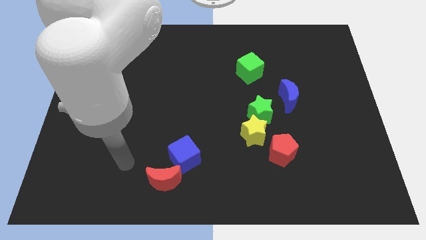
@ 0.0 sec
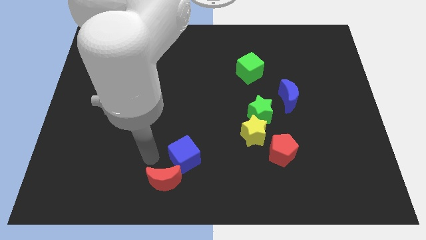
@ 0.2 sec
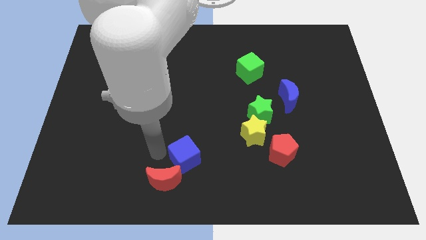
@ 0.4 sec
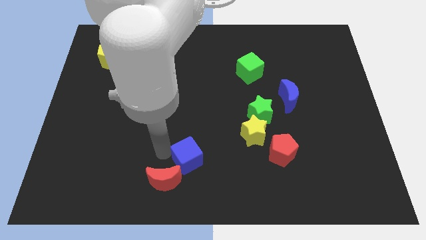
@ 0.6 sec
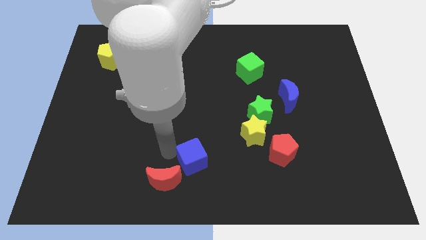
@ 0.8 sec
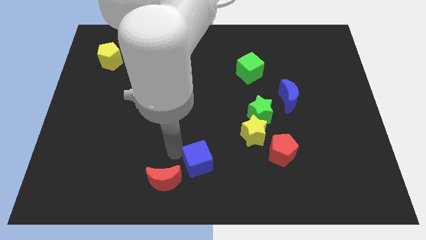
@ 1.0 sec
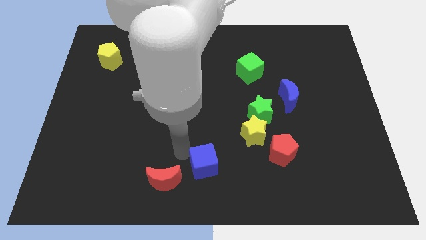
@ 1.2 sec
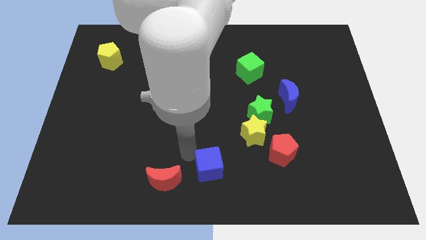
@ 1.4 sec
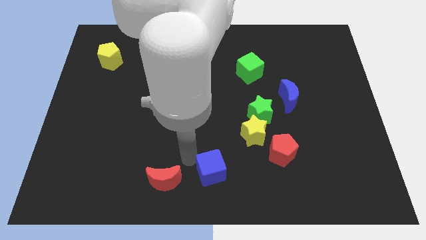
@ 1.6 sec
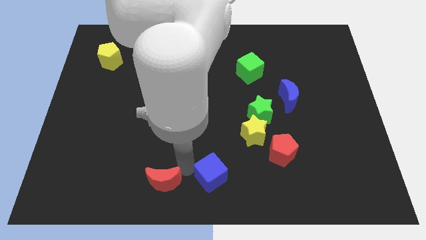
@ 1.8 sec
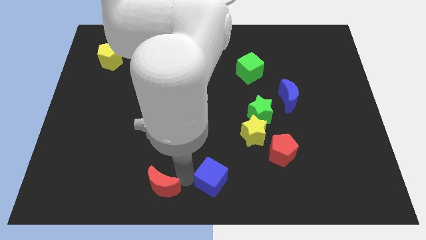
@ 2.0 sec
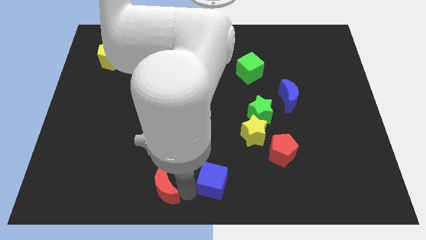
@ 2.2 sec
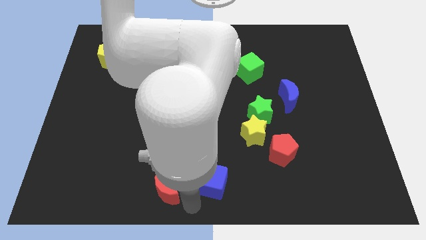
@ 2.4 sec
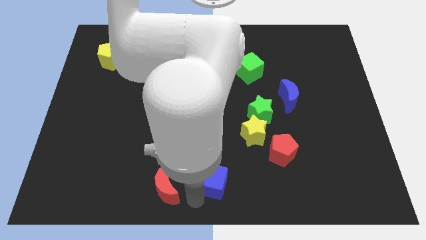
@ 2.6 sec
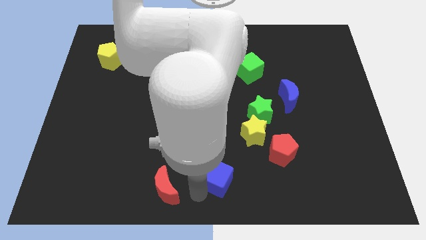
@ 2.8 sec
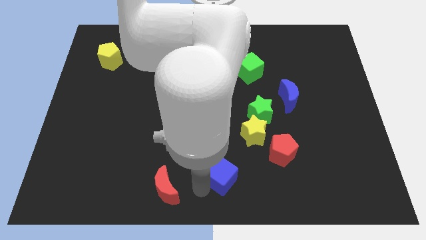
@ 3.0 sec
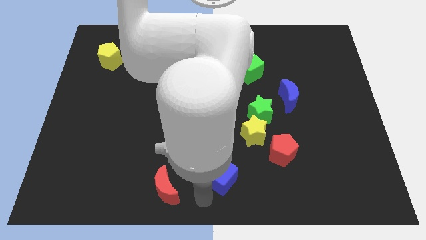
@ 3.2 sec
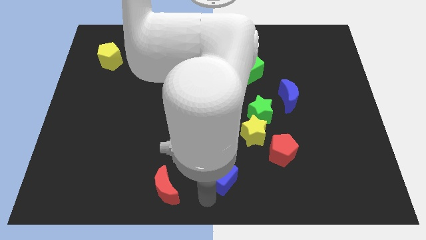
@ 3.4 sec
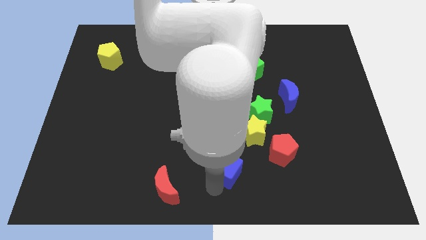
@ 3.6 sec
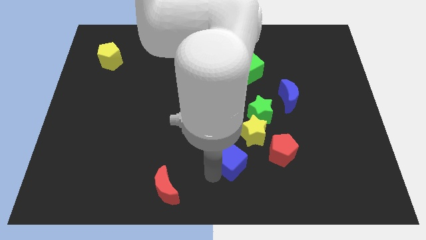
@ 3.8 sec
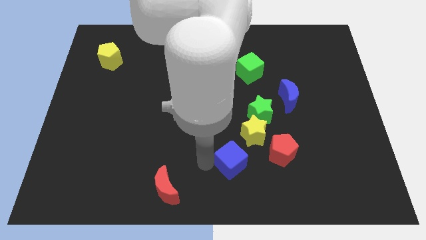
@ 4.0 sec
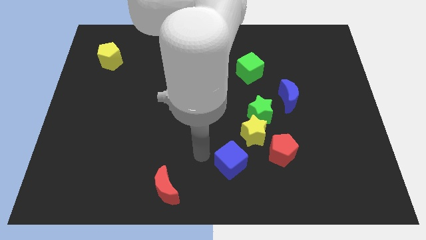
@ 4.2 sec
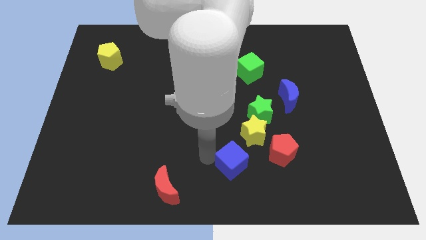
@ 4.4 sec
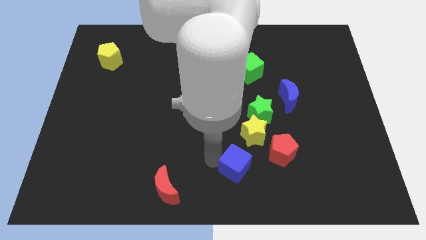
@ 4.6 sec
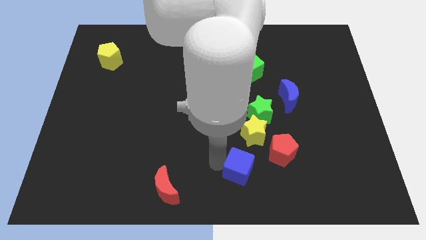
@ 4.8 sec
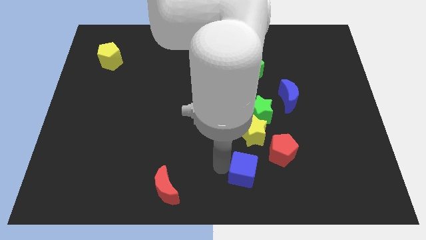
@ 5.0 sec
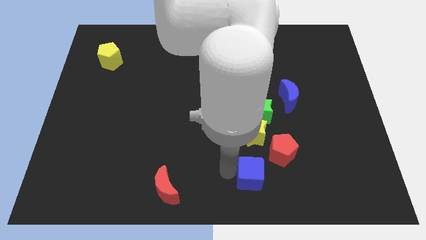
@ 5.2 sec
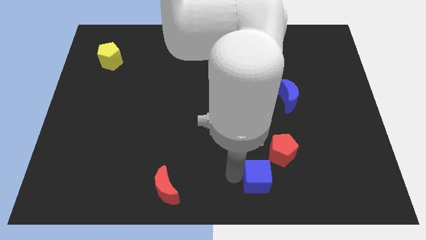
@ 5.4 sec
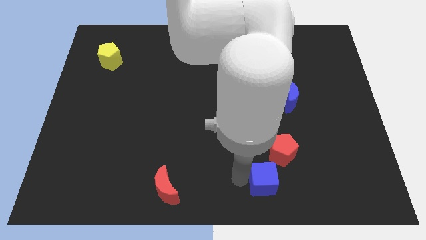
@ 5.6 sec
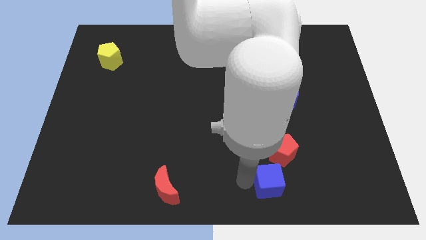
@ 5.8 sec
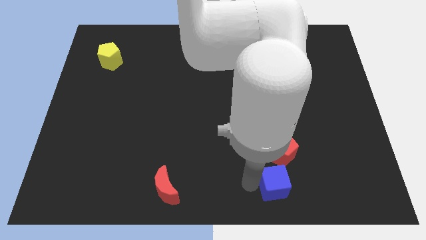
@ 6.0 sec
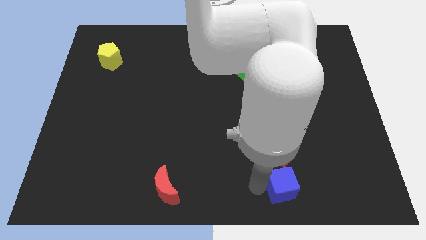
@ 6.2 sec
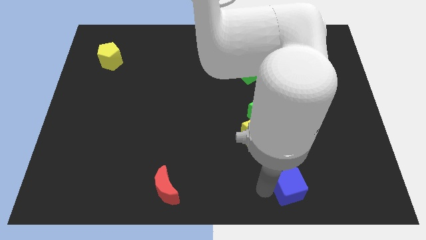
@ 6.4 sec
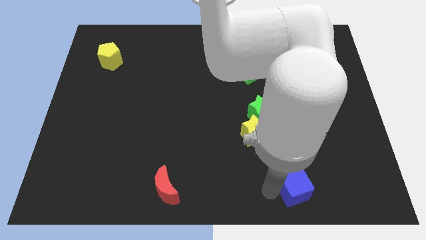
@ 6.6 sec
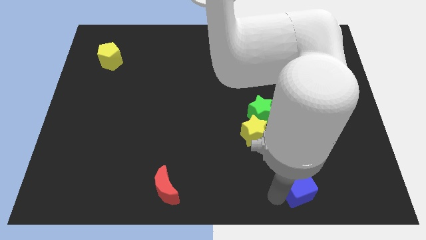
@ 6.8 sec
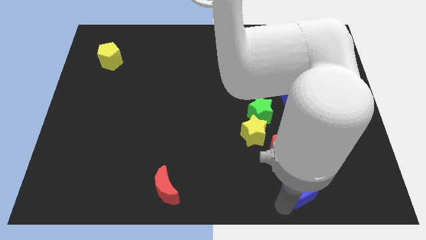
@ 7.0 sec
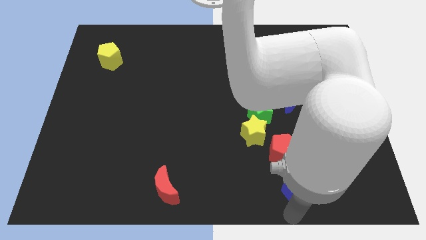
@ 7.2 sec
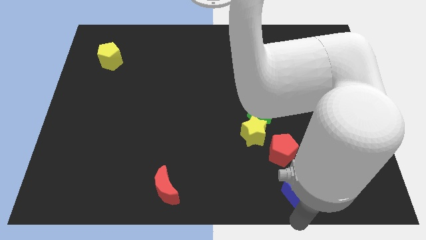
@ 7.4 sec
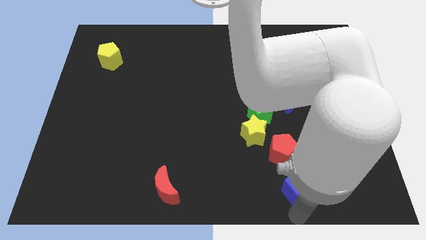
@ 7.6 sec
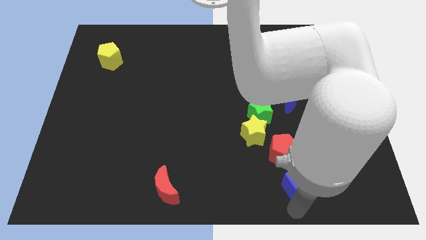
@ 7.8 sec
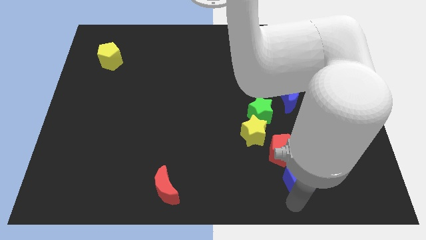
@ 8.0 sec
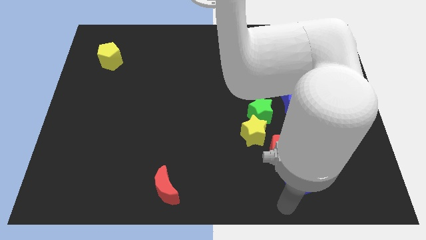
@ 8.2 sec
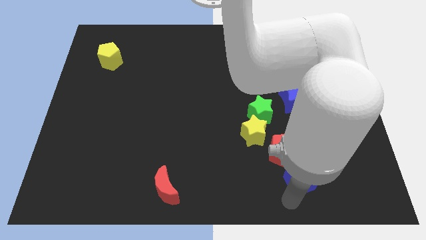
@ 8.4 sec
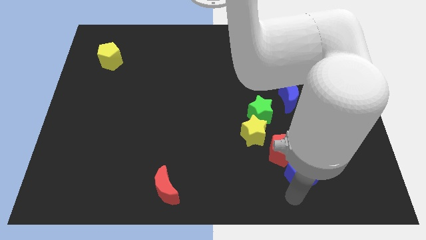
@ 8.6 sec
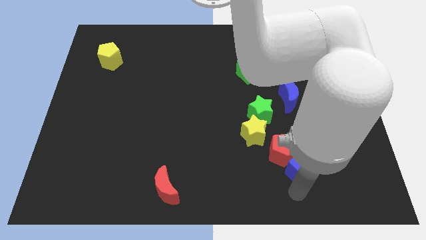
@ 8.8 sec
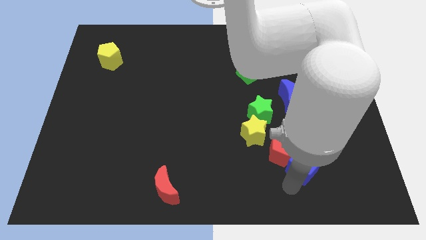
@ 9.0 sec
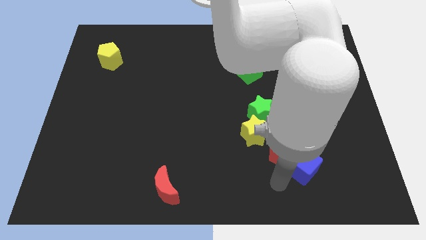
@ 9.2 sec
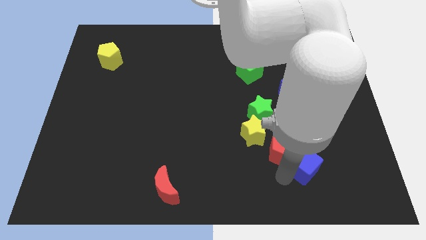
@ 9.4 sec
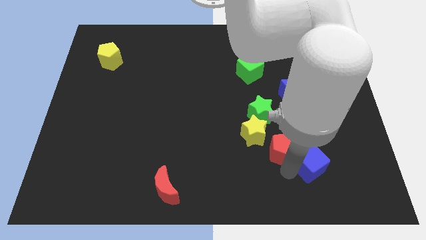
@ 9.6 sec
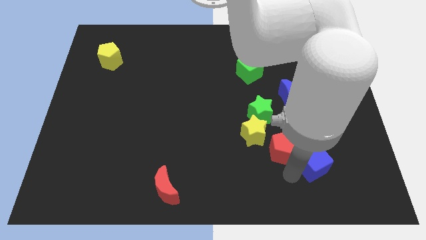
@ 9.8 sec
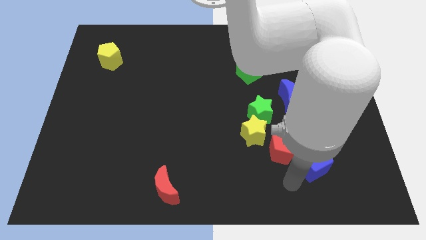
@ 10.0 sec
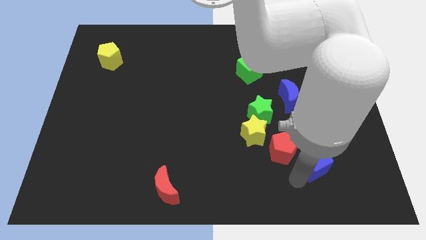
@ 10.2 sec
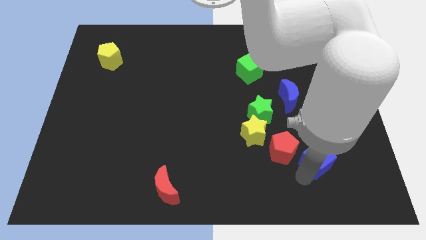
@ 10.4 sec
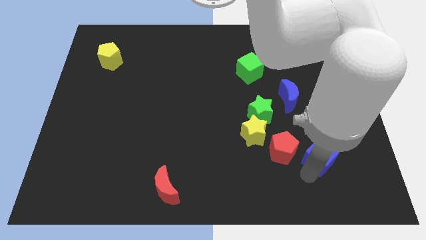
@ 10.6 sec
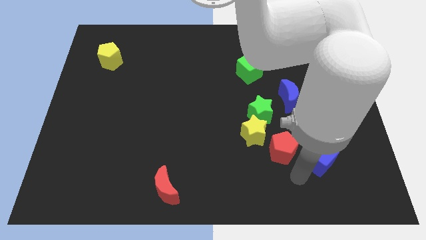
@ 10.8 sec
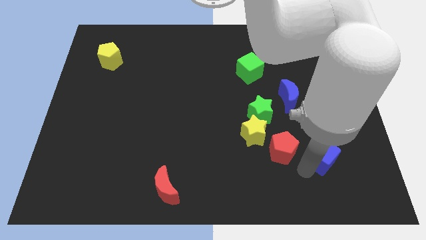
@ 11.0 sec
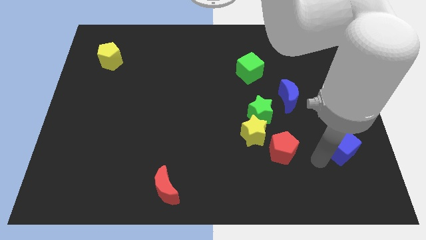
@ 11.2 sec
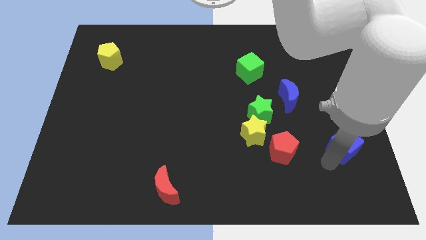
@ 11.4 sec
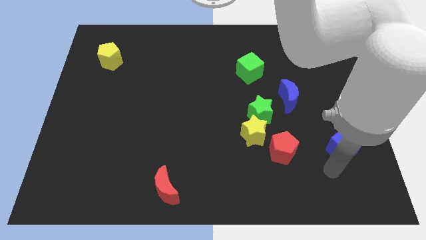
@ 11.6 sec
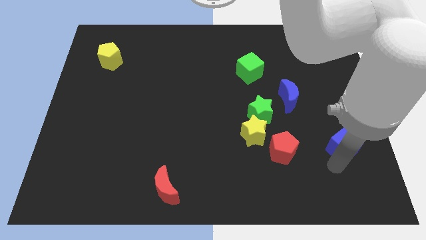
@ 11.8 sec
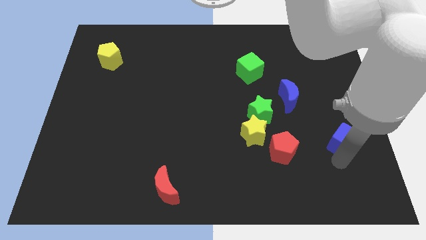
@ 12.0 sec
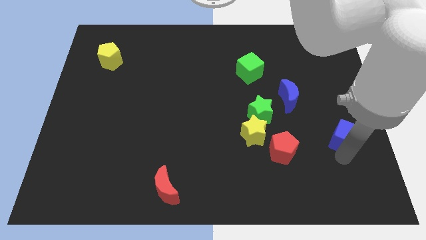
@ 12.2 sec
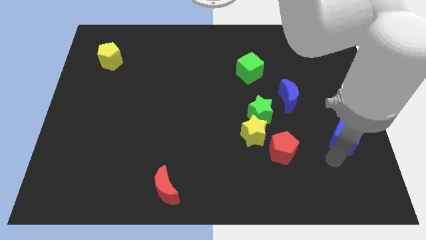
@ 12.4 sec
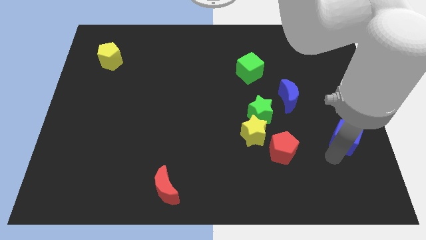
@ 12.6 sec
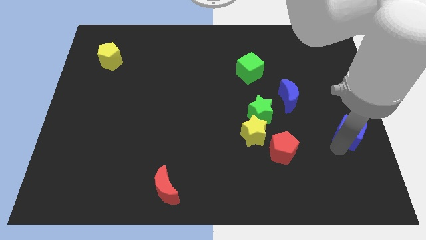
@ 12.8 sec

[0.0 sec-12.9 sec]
slide the blue cube to the right side

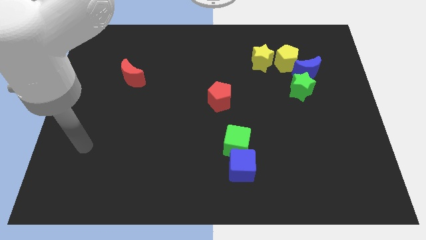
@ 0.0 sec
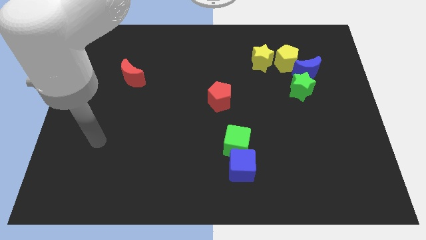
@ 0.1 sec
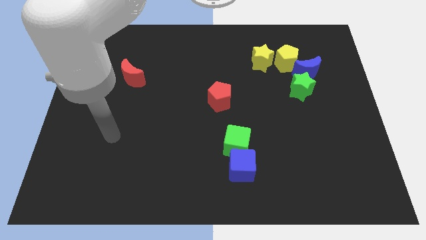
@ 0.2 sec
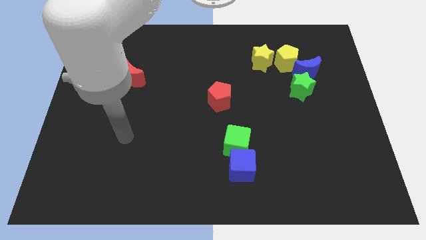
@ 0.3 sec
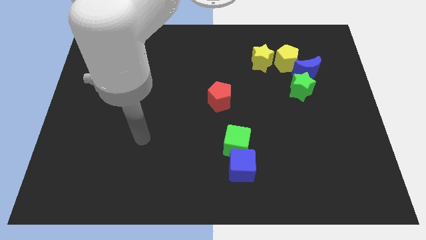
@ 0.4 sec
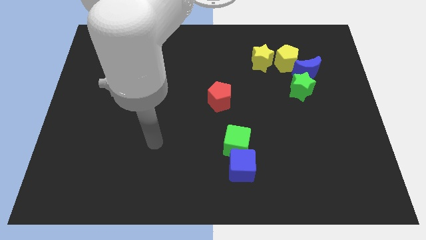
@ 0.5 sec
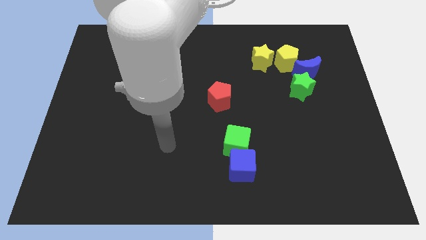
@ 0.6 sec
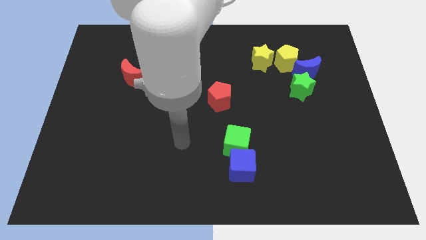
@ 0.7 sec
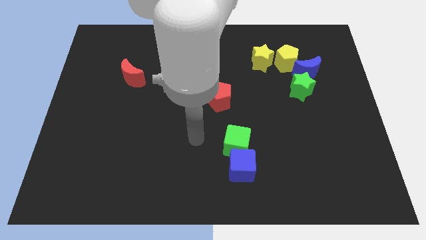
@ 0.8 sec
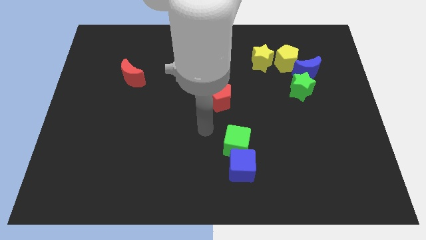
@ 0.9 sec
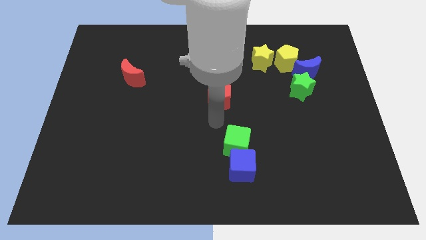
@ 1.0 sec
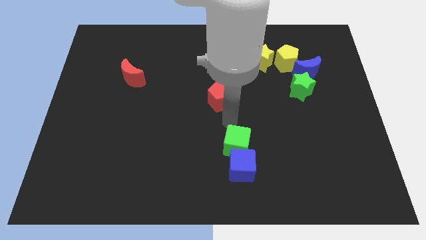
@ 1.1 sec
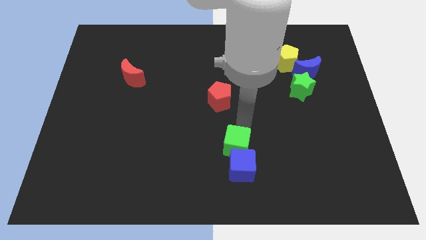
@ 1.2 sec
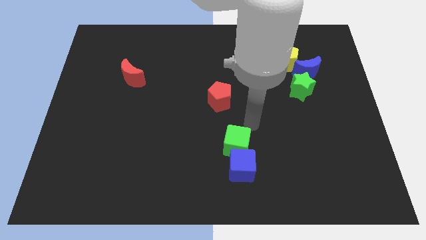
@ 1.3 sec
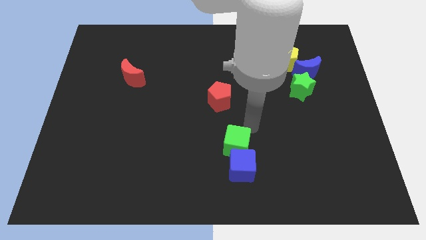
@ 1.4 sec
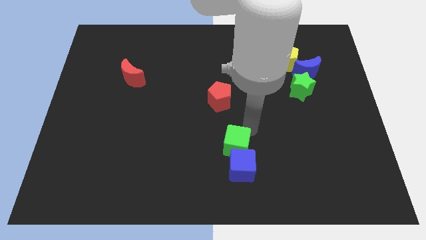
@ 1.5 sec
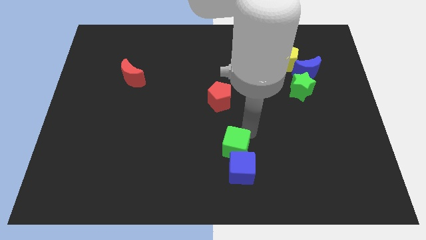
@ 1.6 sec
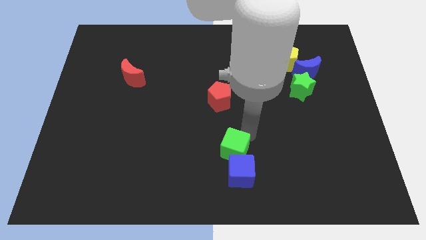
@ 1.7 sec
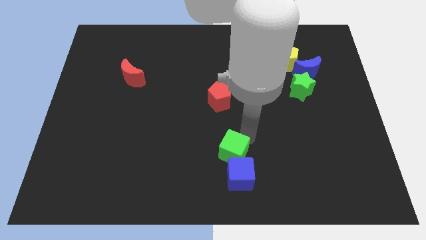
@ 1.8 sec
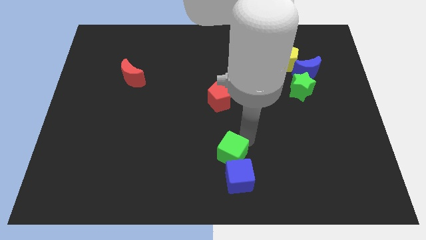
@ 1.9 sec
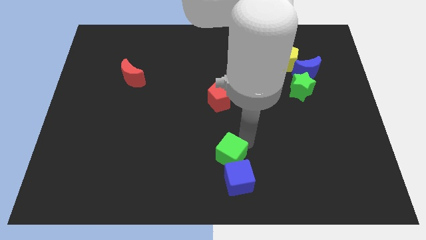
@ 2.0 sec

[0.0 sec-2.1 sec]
move the green cube to the bottom

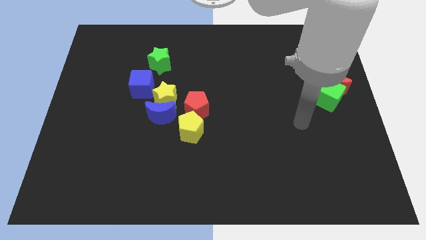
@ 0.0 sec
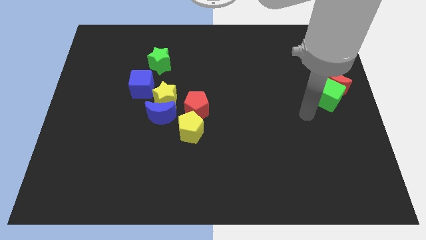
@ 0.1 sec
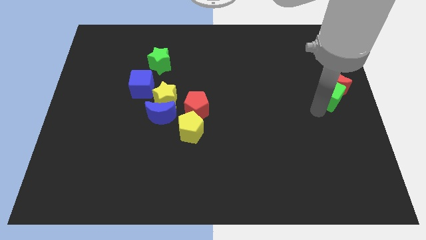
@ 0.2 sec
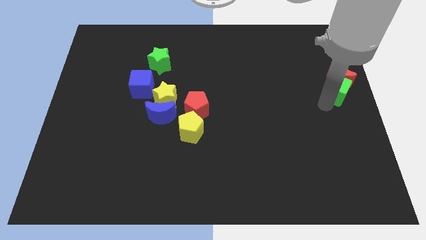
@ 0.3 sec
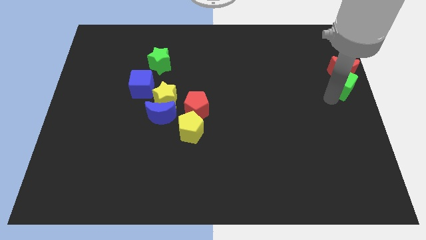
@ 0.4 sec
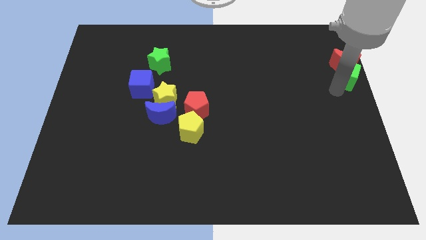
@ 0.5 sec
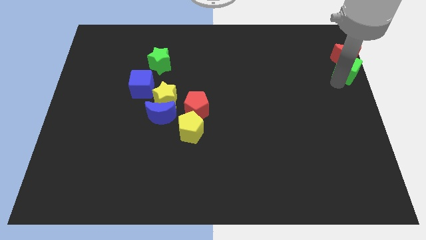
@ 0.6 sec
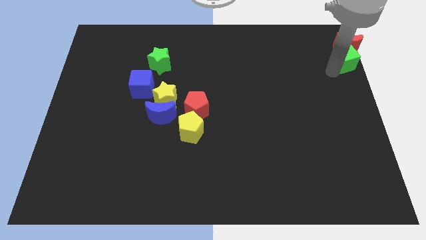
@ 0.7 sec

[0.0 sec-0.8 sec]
move the red moon to the top right corner
